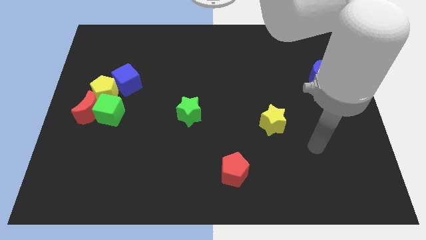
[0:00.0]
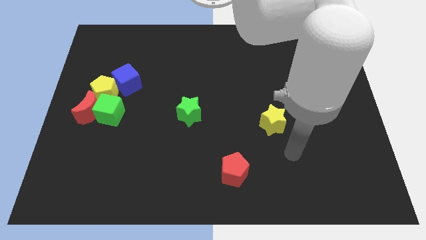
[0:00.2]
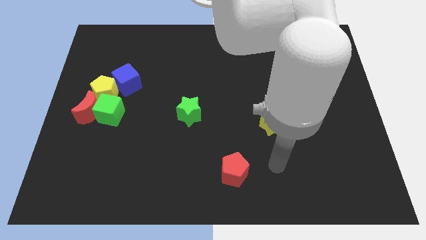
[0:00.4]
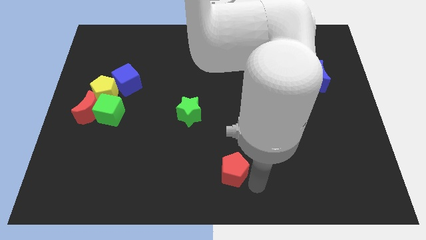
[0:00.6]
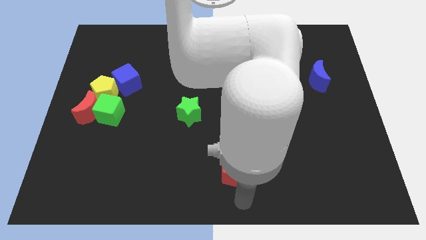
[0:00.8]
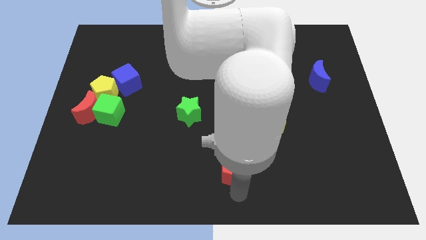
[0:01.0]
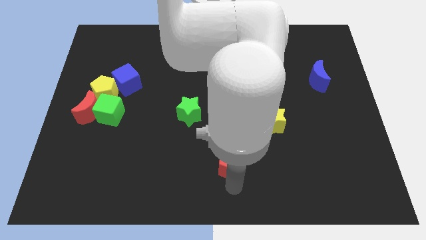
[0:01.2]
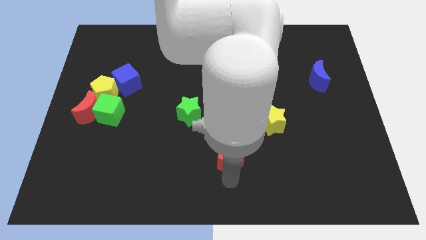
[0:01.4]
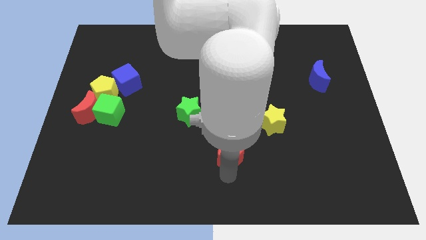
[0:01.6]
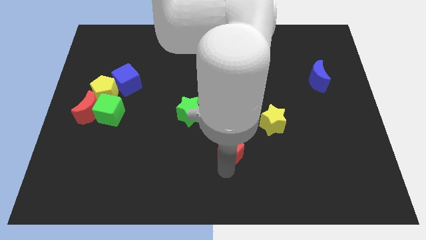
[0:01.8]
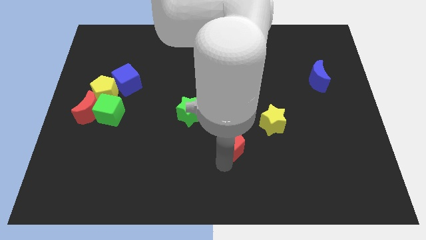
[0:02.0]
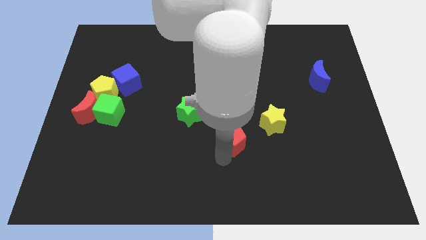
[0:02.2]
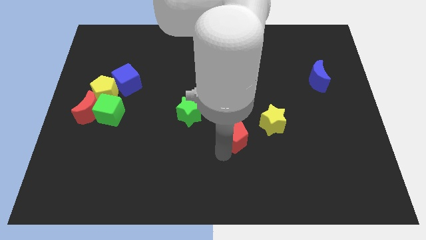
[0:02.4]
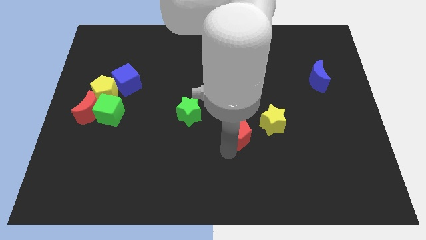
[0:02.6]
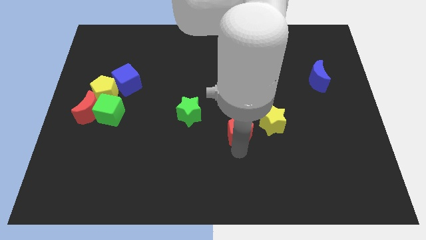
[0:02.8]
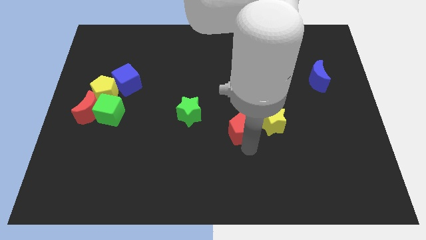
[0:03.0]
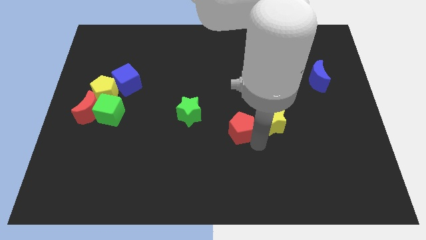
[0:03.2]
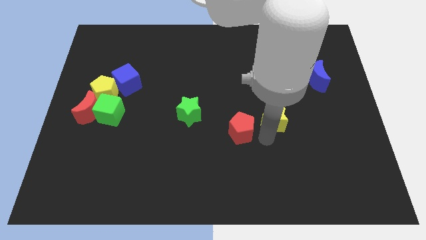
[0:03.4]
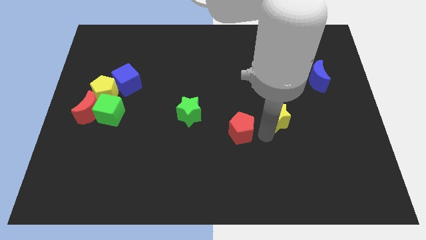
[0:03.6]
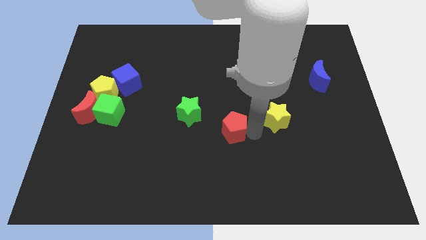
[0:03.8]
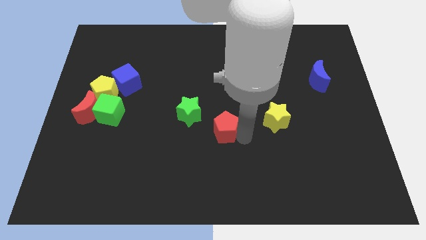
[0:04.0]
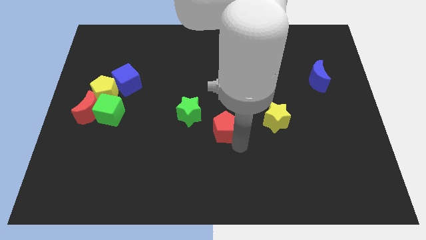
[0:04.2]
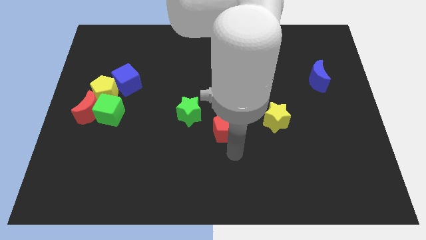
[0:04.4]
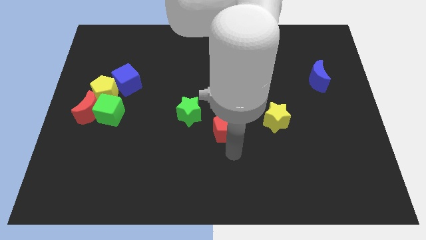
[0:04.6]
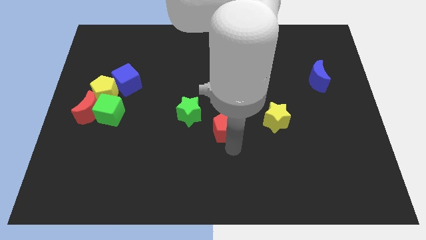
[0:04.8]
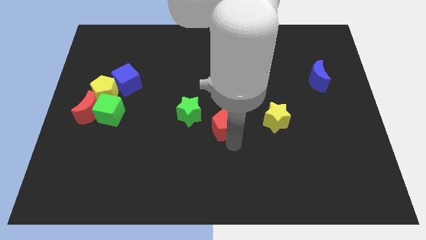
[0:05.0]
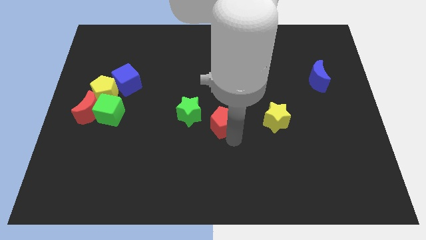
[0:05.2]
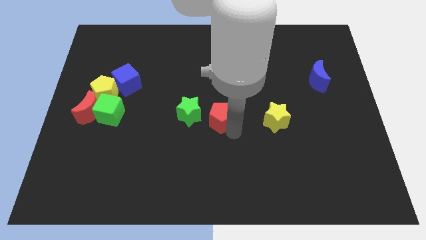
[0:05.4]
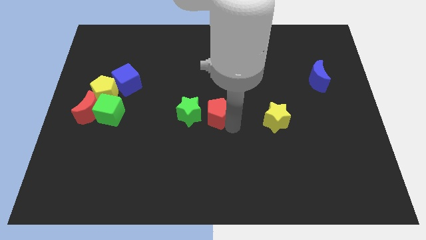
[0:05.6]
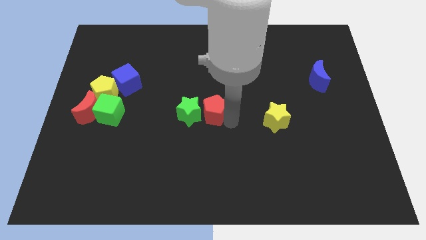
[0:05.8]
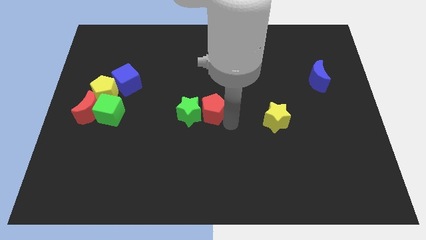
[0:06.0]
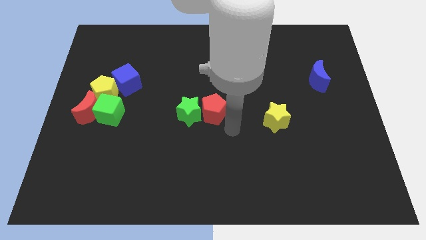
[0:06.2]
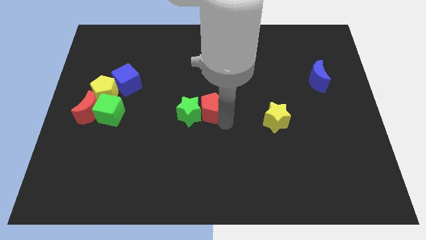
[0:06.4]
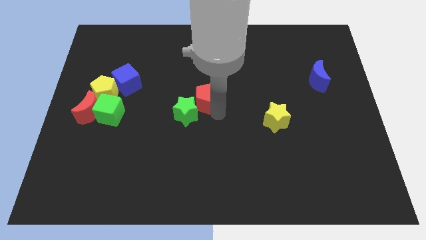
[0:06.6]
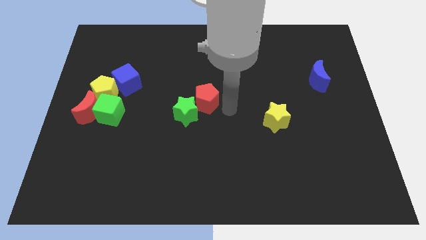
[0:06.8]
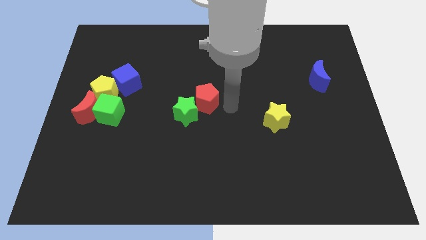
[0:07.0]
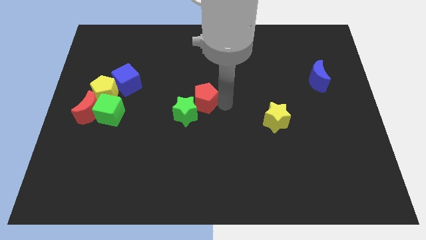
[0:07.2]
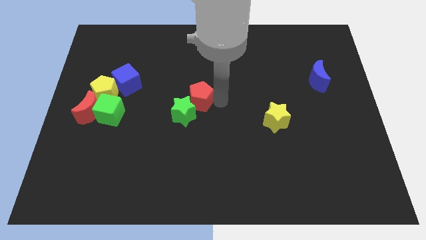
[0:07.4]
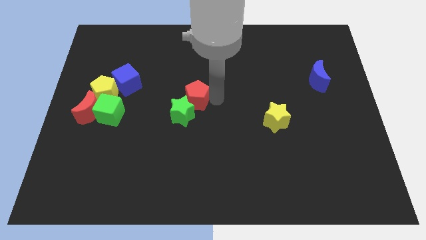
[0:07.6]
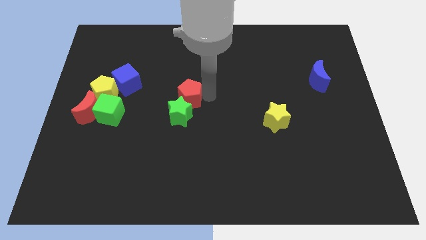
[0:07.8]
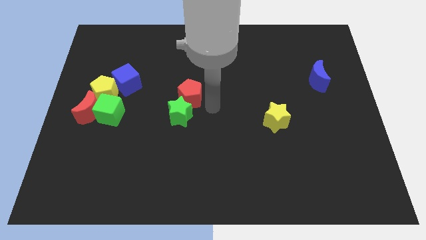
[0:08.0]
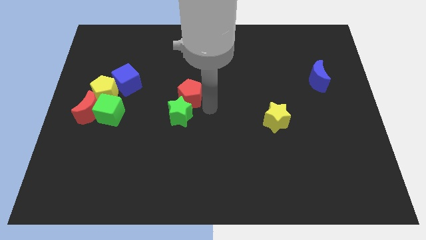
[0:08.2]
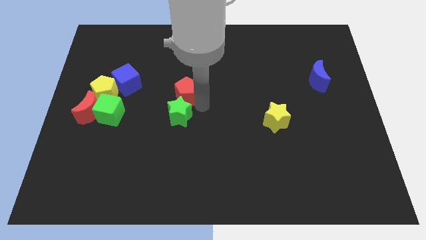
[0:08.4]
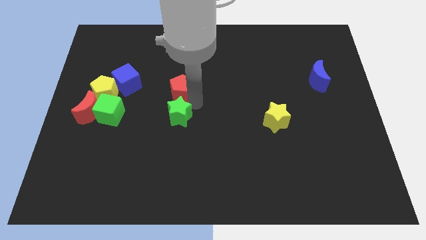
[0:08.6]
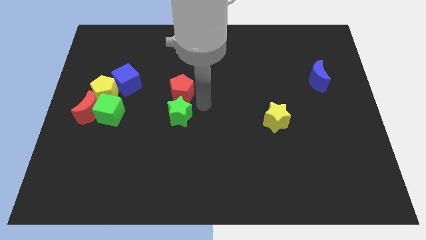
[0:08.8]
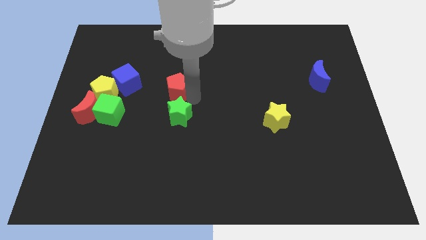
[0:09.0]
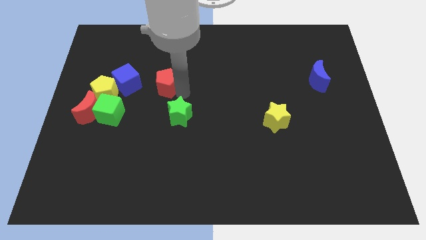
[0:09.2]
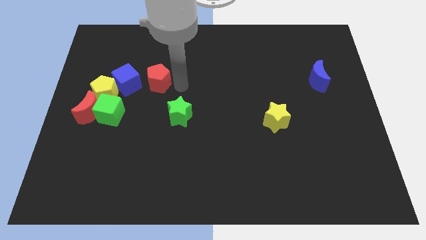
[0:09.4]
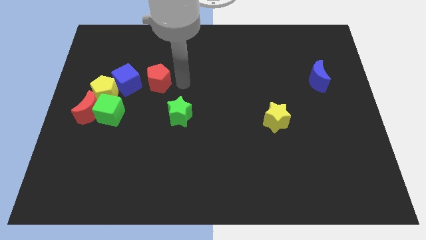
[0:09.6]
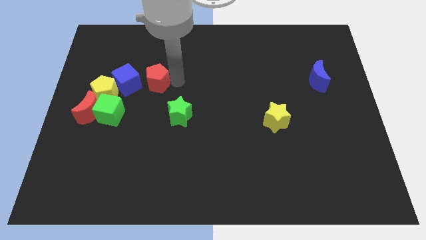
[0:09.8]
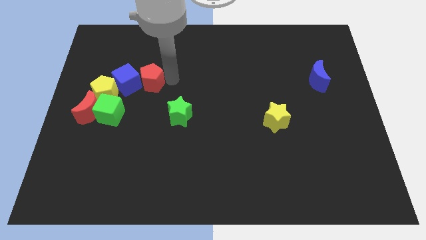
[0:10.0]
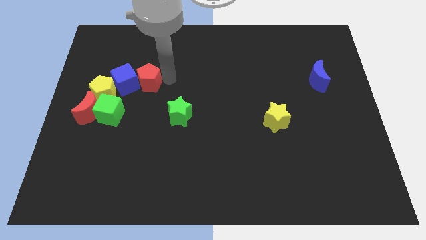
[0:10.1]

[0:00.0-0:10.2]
slide the red pentagon diagonally up and to the right of the yellow pentagon

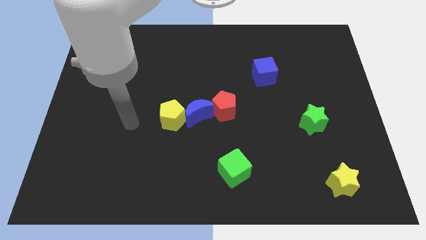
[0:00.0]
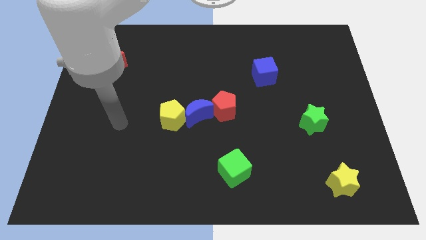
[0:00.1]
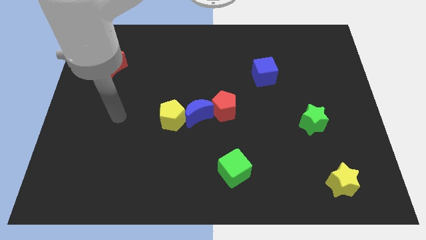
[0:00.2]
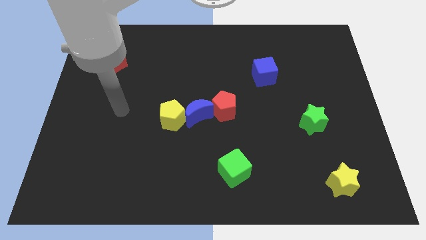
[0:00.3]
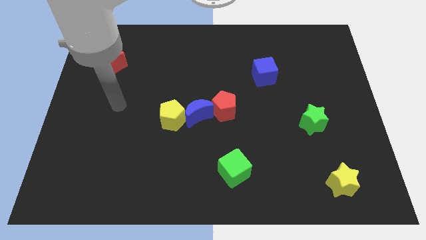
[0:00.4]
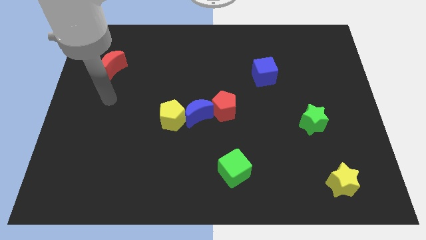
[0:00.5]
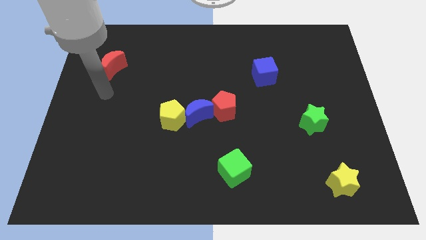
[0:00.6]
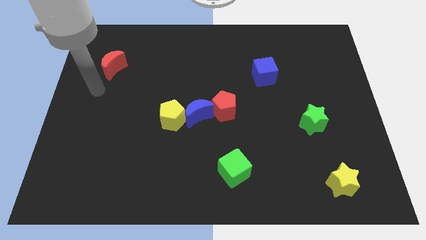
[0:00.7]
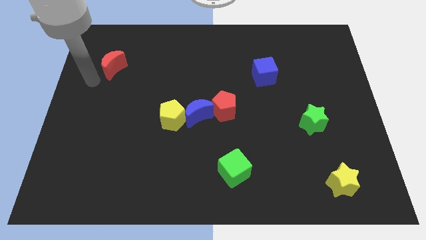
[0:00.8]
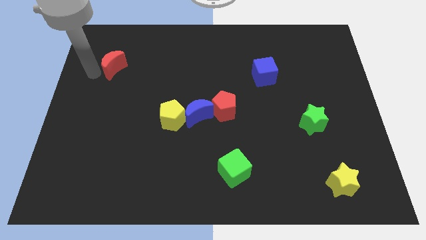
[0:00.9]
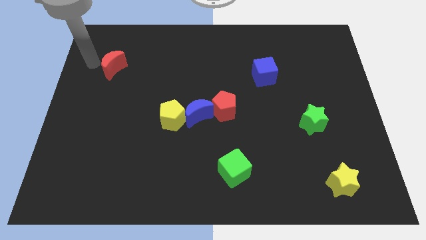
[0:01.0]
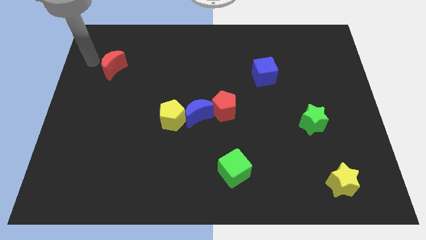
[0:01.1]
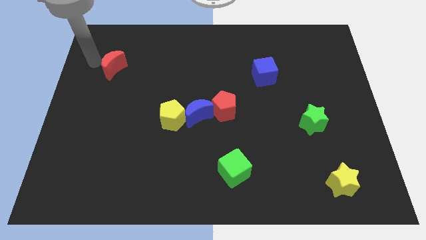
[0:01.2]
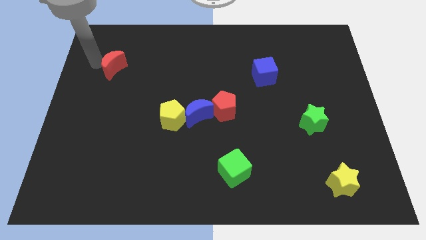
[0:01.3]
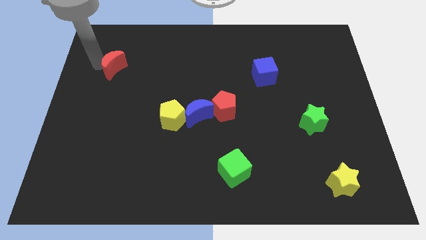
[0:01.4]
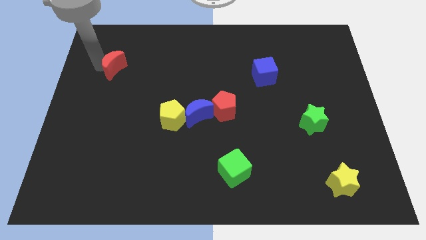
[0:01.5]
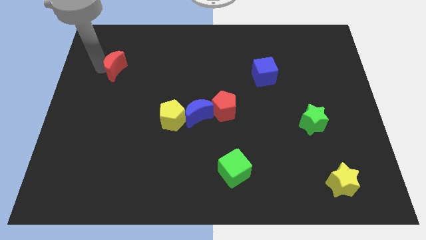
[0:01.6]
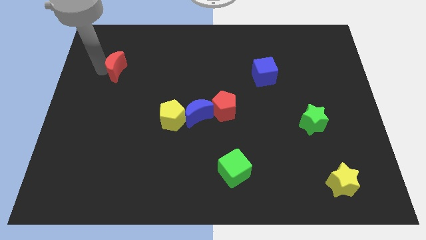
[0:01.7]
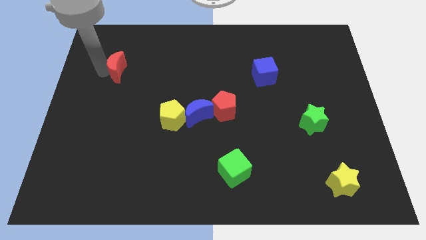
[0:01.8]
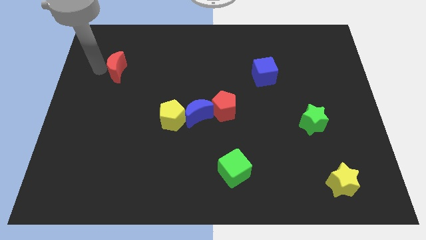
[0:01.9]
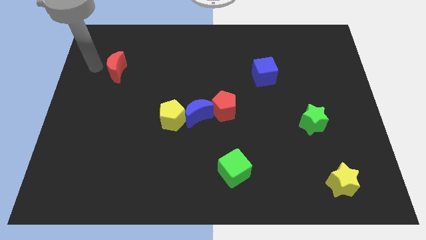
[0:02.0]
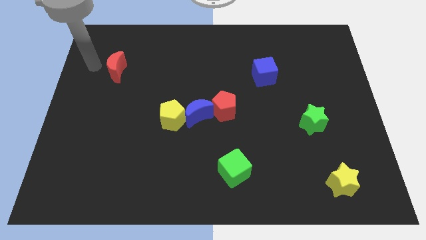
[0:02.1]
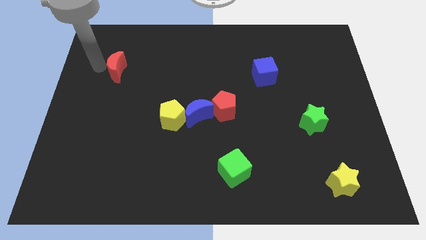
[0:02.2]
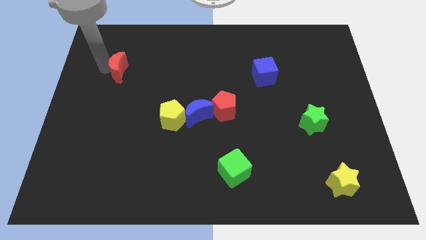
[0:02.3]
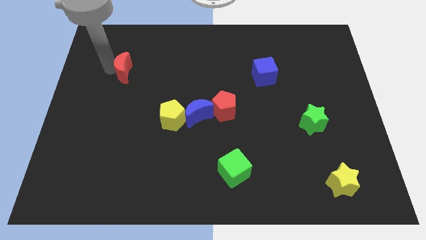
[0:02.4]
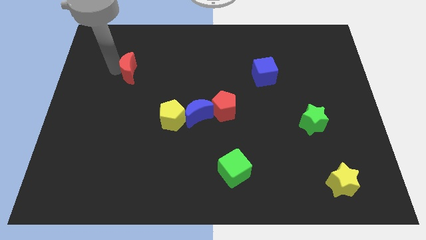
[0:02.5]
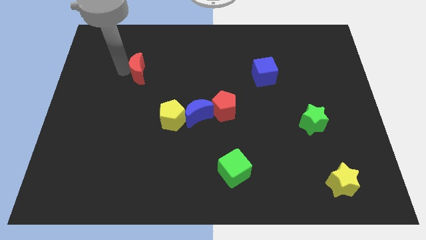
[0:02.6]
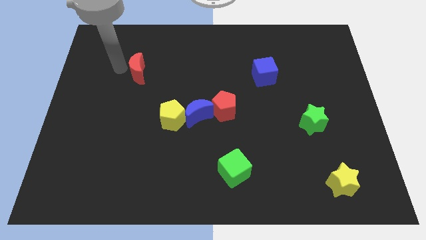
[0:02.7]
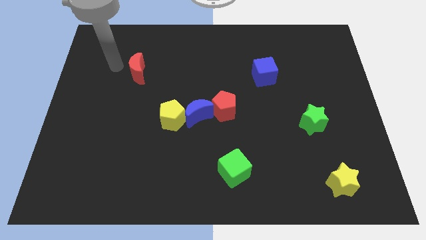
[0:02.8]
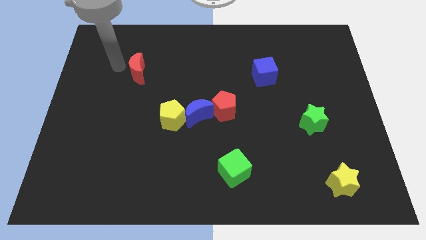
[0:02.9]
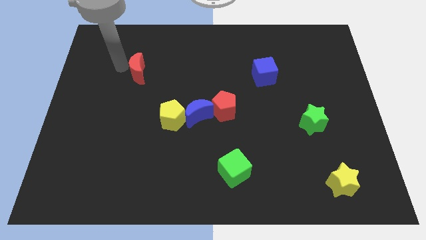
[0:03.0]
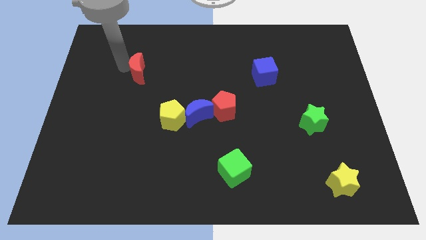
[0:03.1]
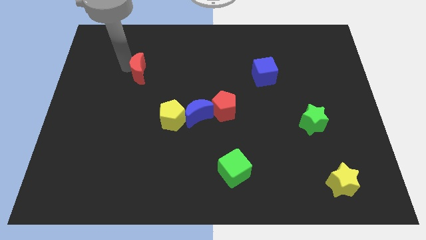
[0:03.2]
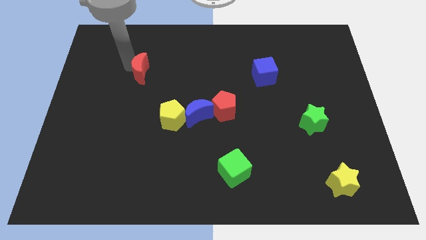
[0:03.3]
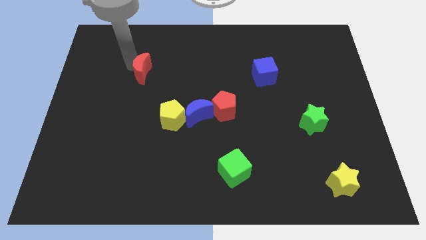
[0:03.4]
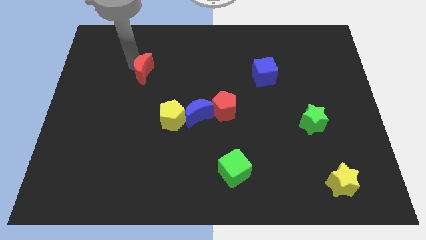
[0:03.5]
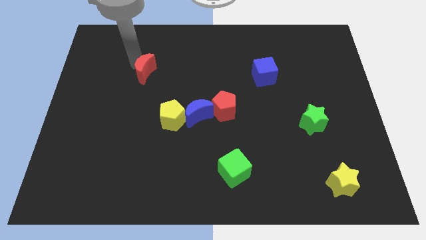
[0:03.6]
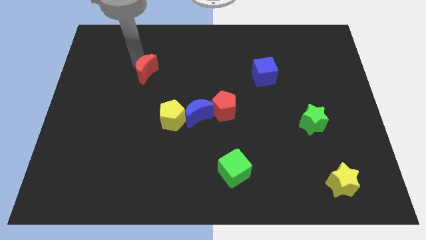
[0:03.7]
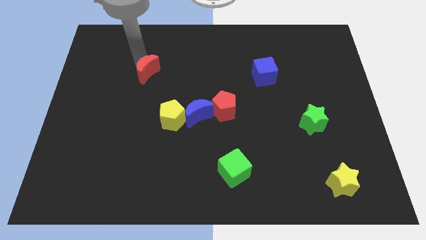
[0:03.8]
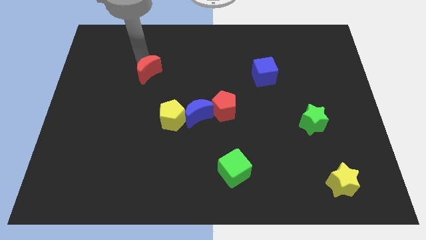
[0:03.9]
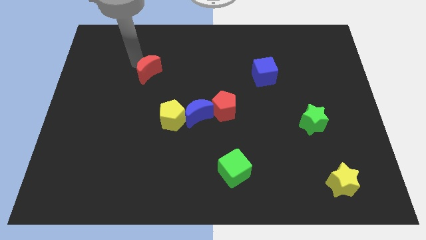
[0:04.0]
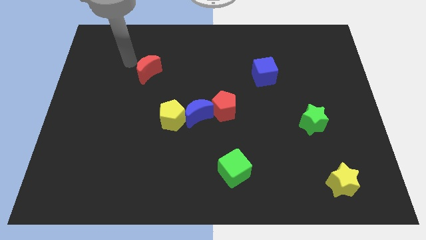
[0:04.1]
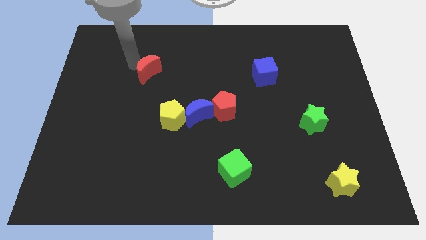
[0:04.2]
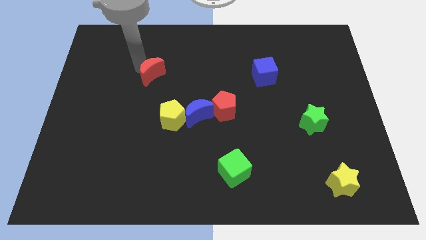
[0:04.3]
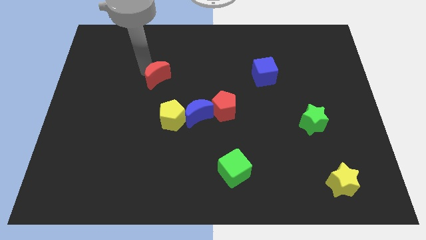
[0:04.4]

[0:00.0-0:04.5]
slide the red moon to the top side of the yellow pentagon
